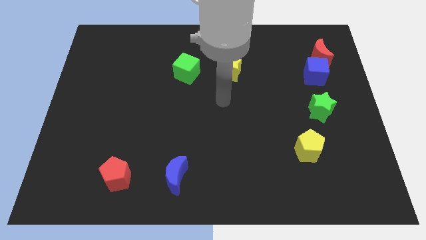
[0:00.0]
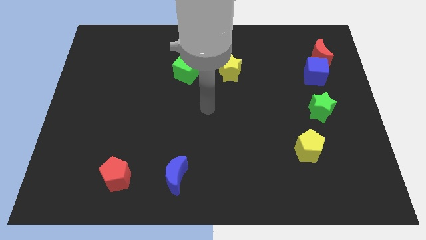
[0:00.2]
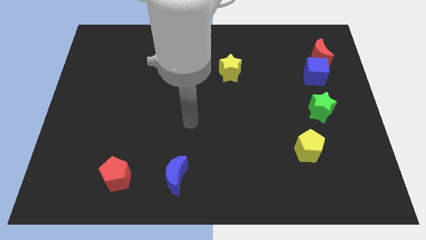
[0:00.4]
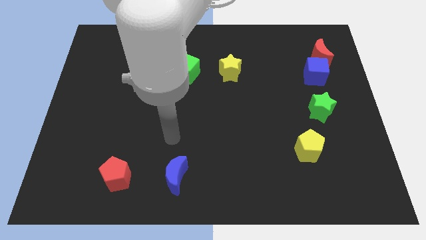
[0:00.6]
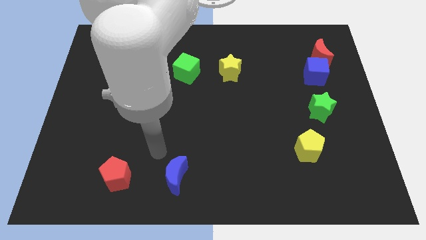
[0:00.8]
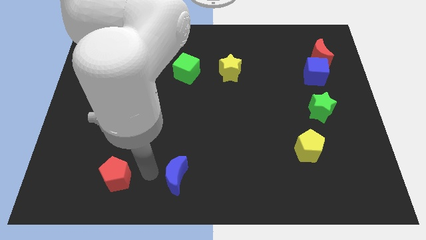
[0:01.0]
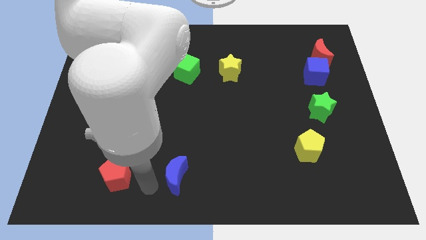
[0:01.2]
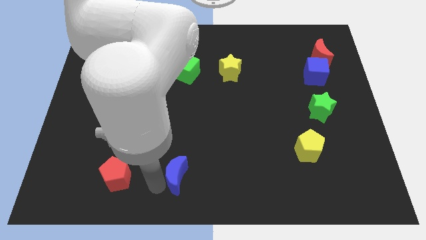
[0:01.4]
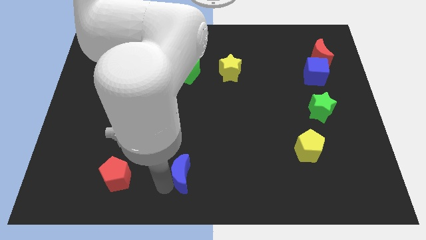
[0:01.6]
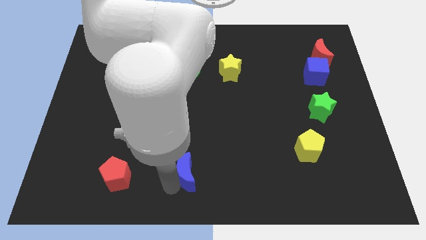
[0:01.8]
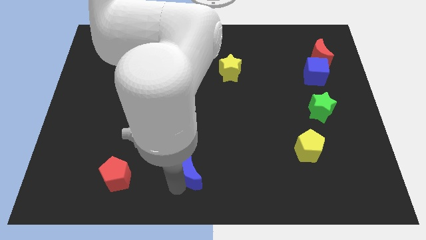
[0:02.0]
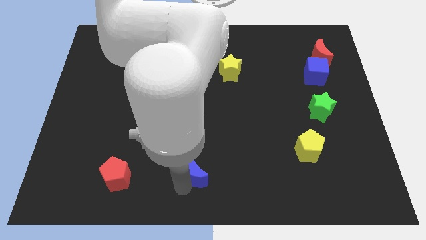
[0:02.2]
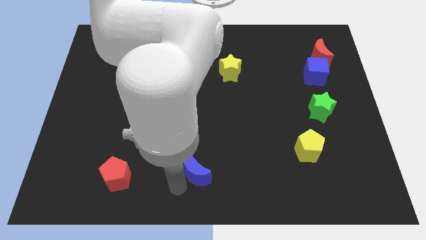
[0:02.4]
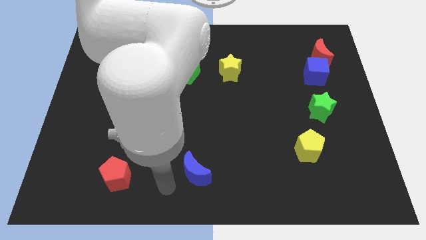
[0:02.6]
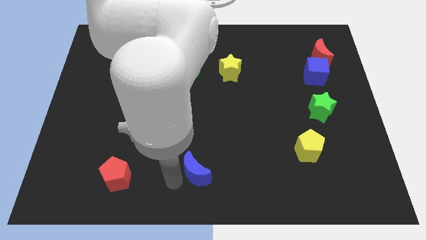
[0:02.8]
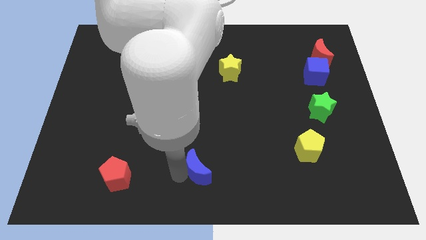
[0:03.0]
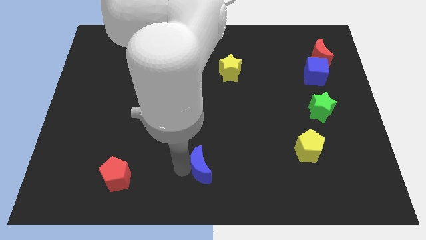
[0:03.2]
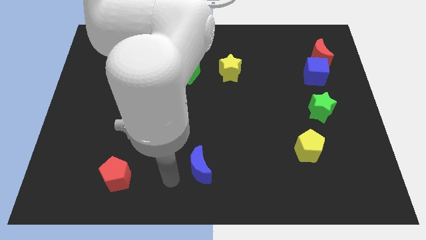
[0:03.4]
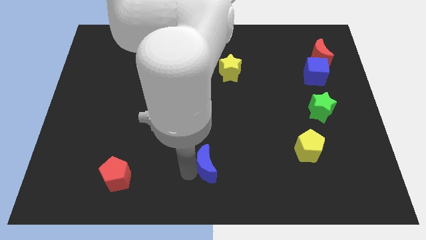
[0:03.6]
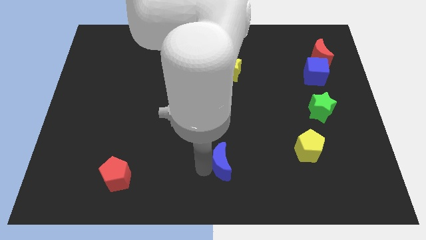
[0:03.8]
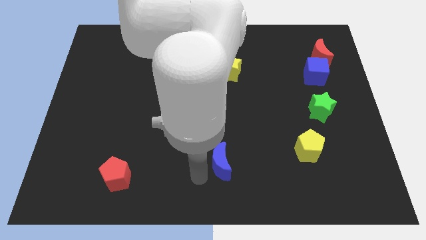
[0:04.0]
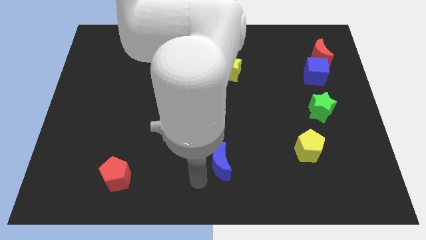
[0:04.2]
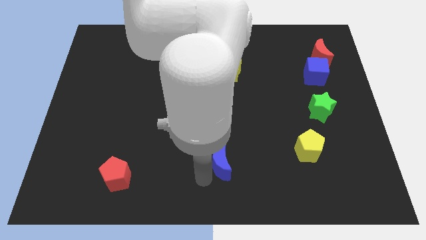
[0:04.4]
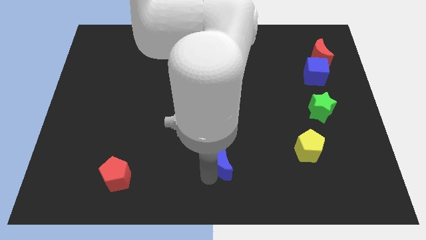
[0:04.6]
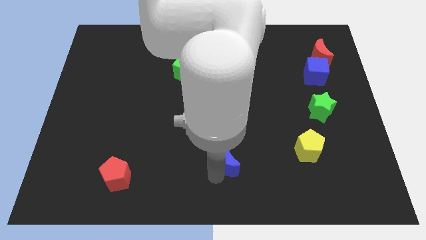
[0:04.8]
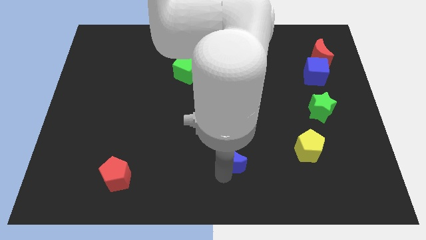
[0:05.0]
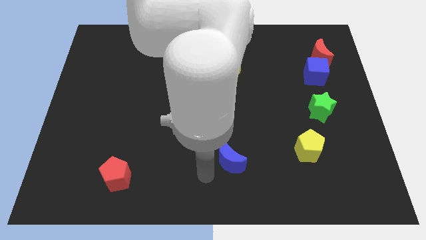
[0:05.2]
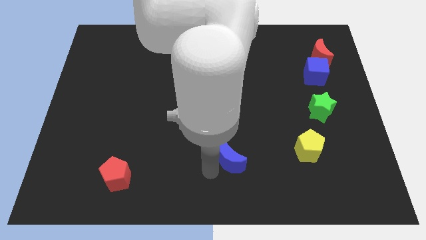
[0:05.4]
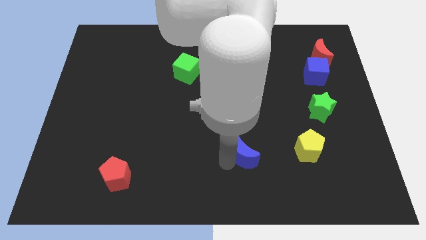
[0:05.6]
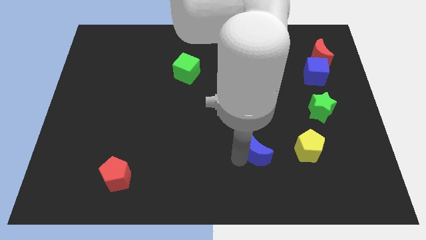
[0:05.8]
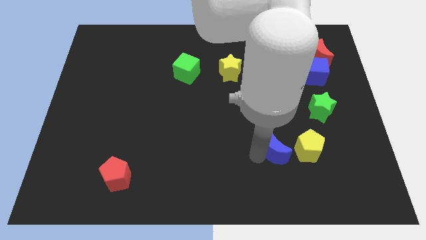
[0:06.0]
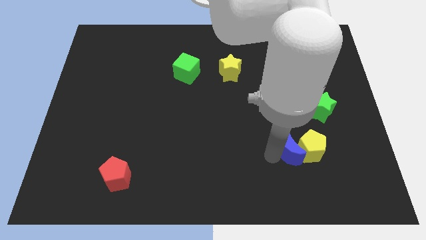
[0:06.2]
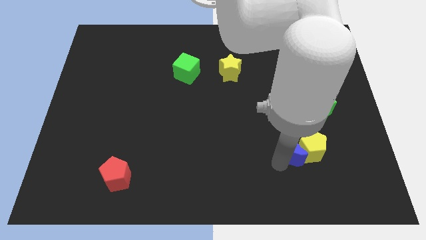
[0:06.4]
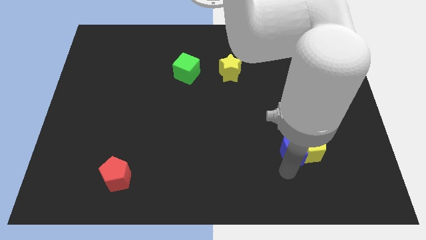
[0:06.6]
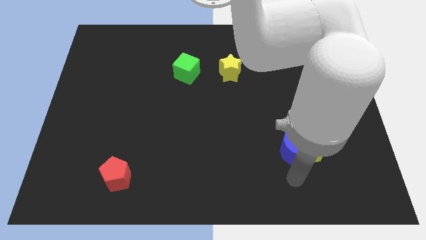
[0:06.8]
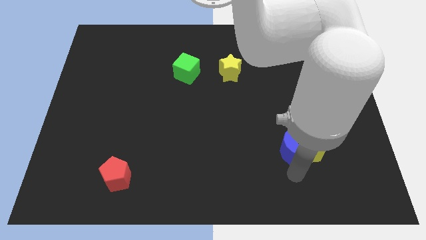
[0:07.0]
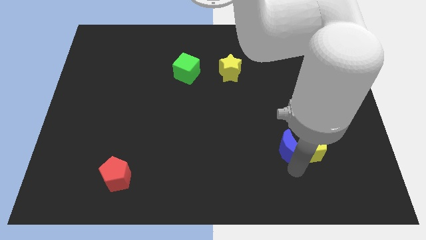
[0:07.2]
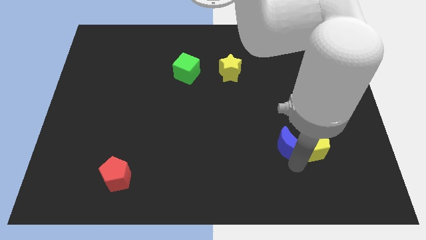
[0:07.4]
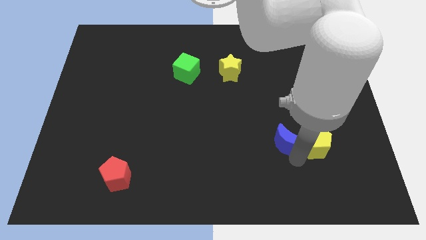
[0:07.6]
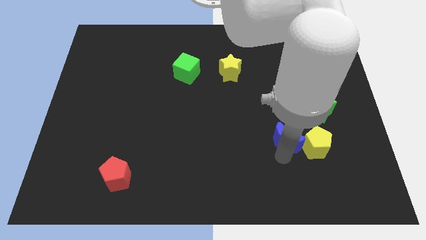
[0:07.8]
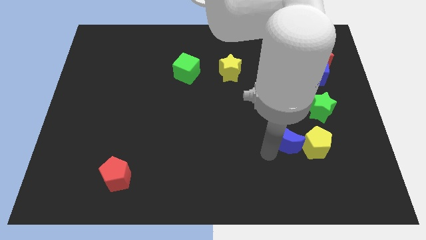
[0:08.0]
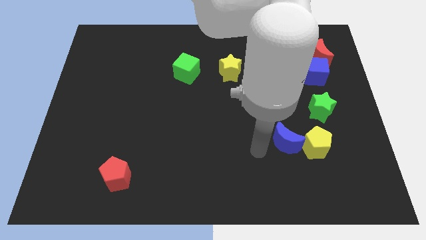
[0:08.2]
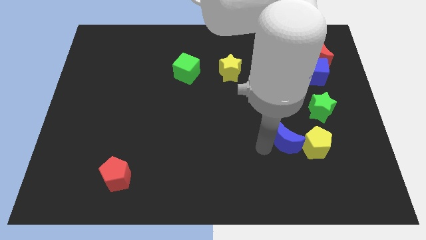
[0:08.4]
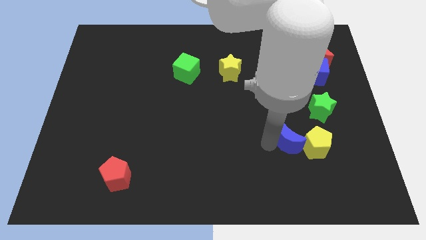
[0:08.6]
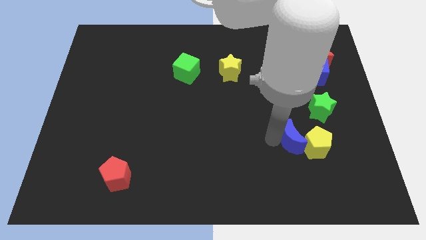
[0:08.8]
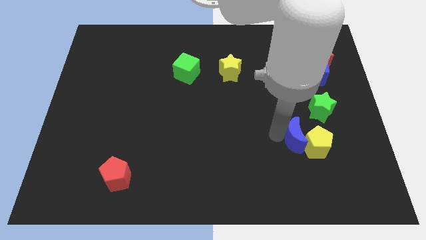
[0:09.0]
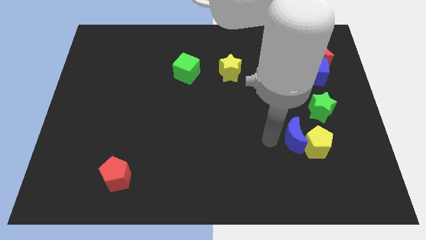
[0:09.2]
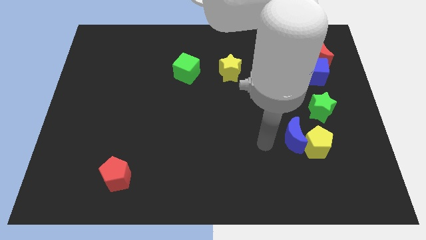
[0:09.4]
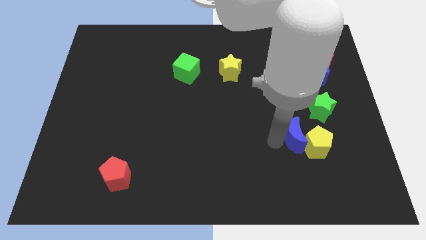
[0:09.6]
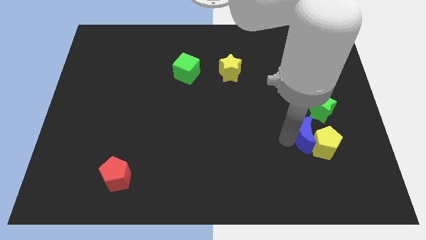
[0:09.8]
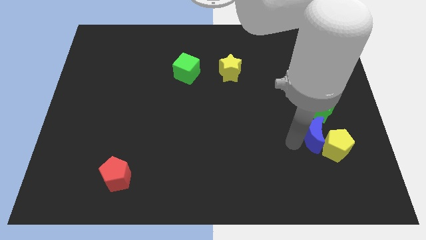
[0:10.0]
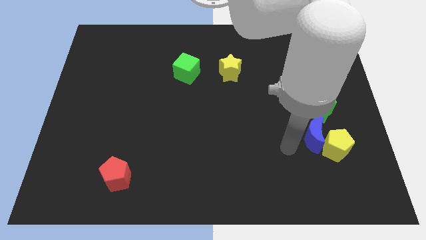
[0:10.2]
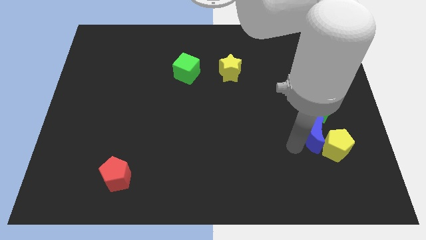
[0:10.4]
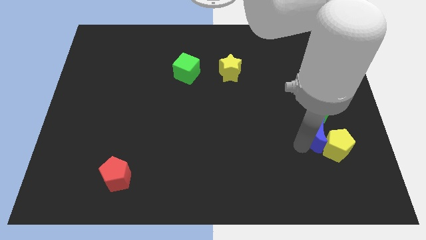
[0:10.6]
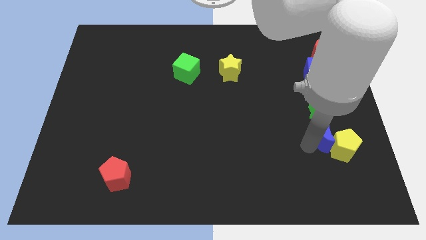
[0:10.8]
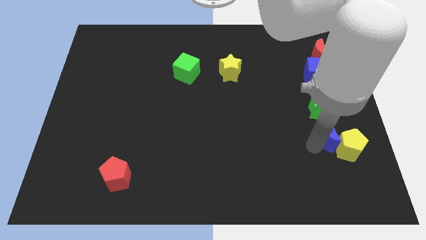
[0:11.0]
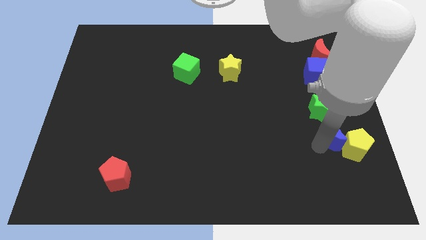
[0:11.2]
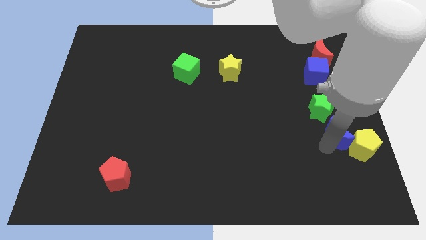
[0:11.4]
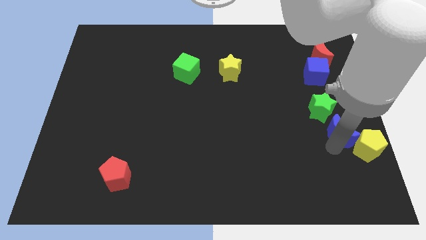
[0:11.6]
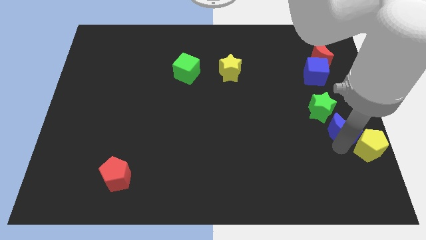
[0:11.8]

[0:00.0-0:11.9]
move the blue moon to the right side
